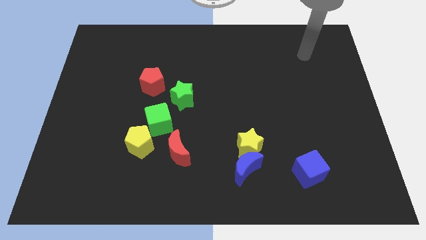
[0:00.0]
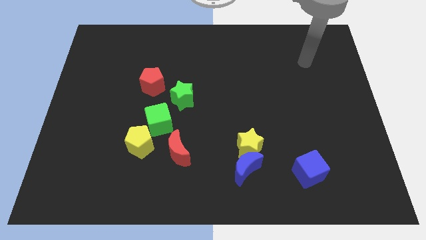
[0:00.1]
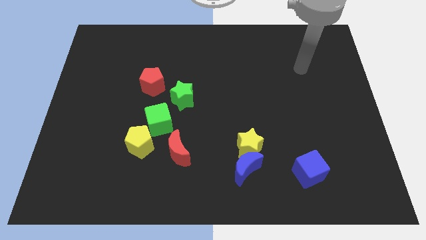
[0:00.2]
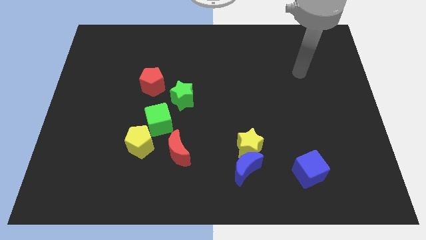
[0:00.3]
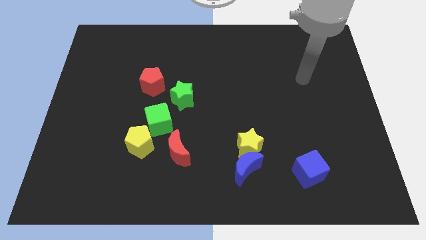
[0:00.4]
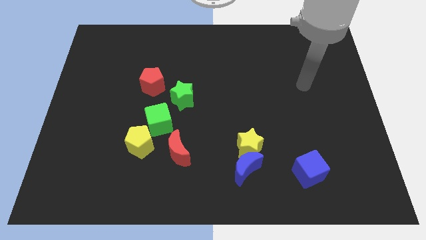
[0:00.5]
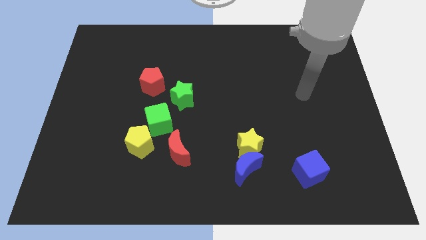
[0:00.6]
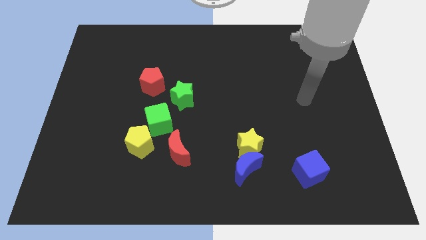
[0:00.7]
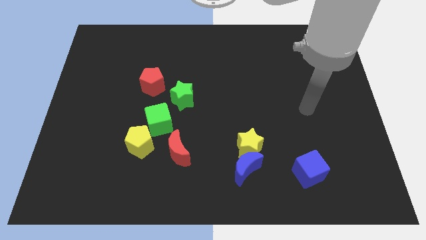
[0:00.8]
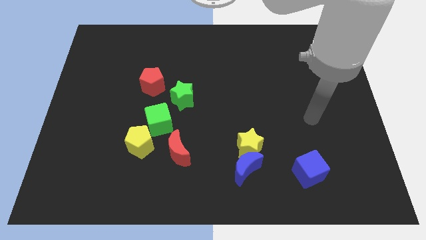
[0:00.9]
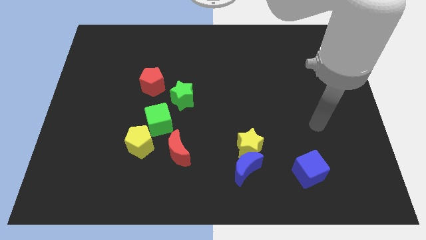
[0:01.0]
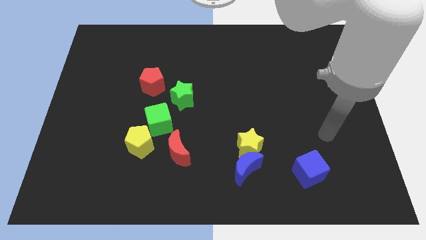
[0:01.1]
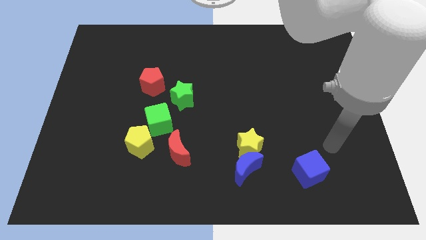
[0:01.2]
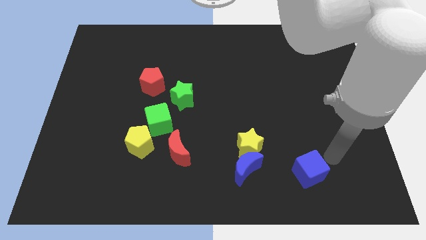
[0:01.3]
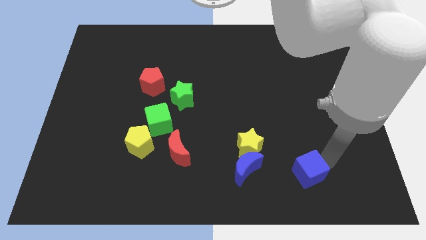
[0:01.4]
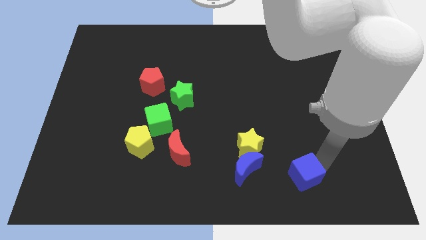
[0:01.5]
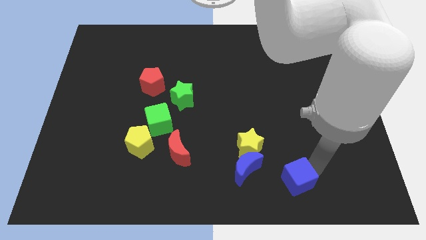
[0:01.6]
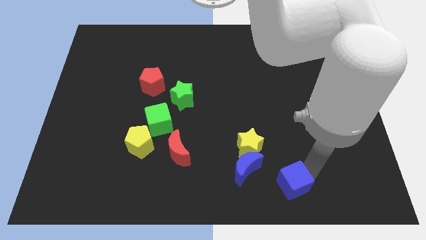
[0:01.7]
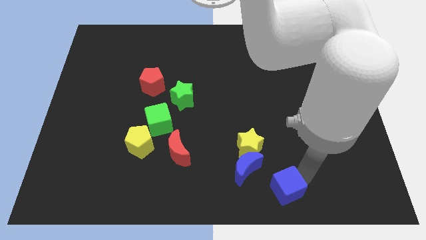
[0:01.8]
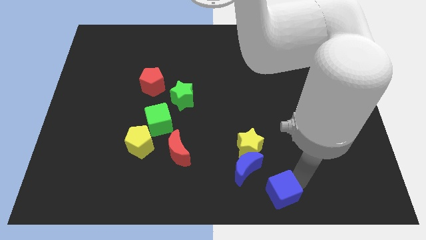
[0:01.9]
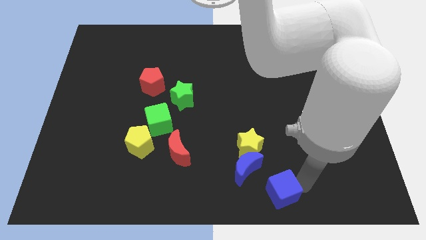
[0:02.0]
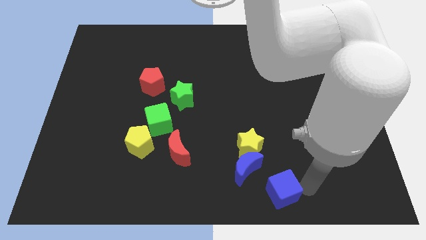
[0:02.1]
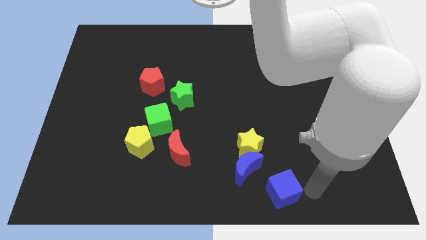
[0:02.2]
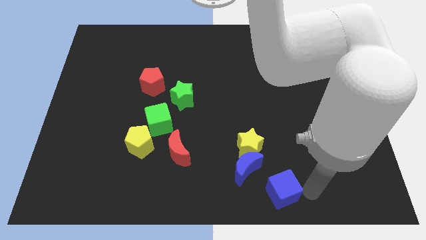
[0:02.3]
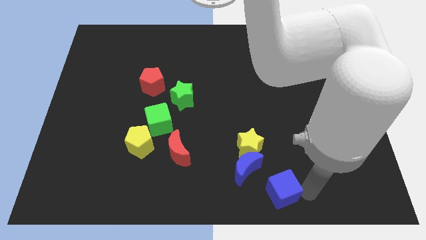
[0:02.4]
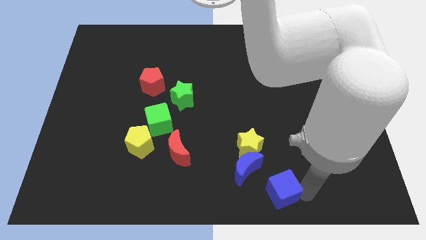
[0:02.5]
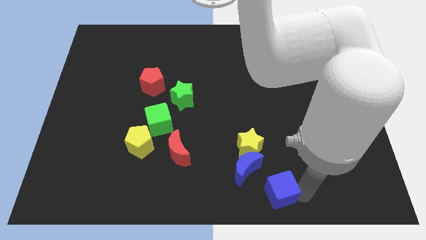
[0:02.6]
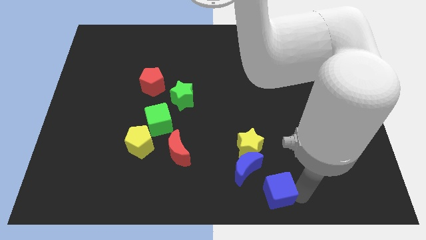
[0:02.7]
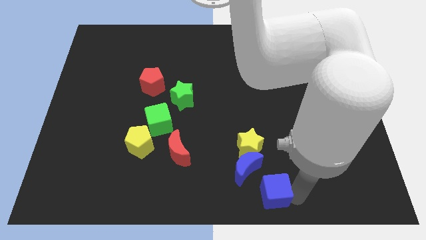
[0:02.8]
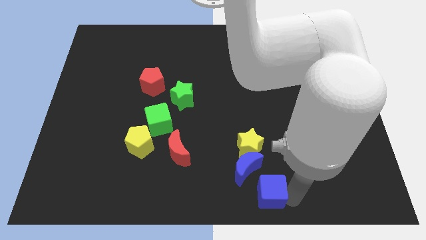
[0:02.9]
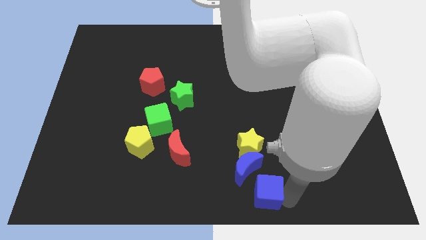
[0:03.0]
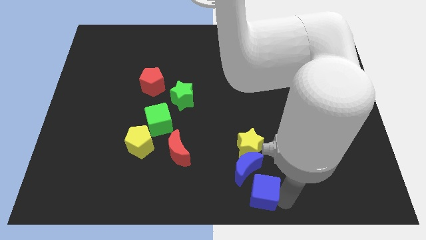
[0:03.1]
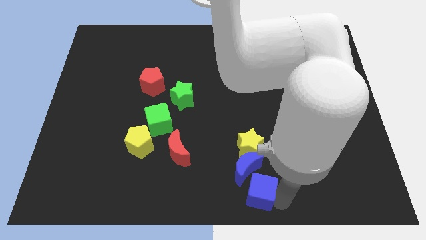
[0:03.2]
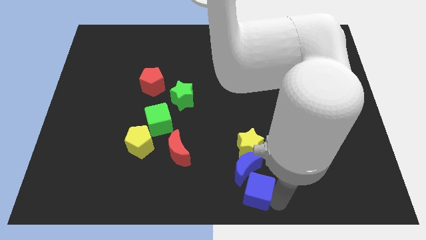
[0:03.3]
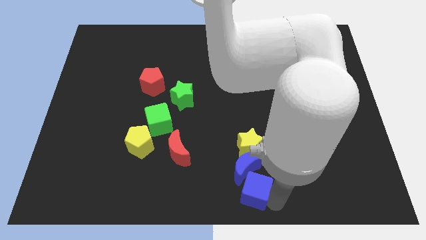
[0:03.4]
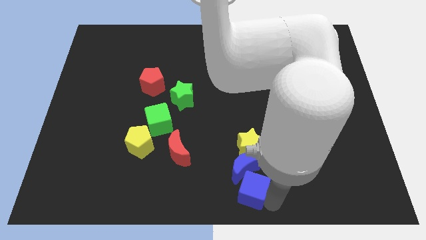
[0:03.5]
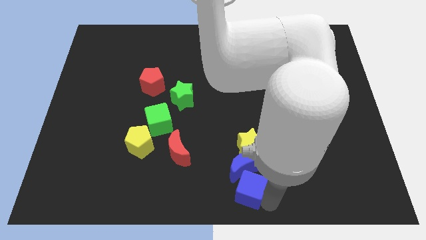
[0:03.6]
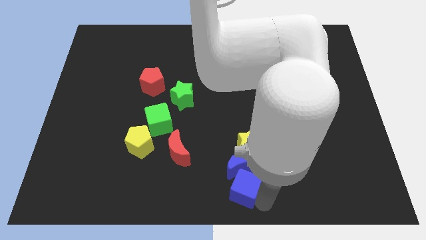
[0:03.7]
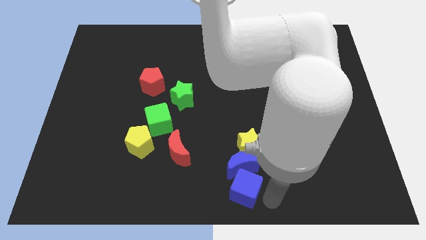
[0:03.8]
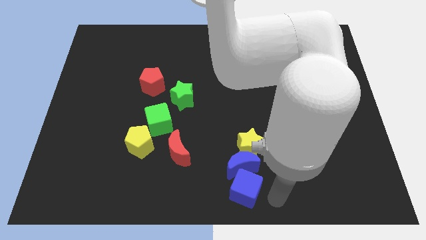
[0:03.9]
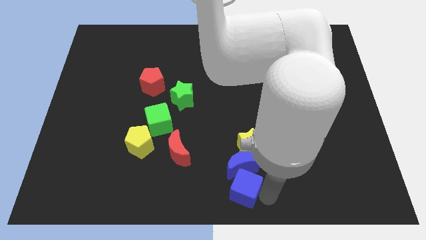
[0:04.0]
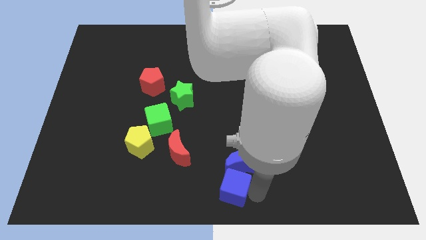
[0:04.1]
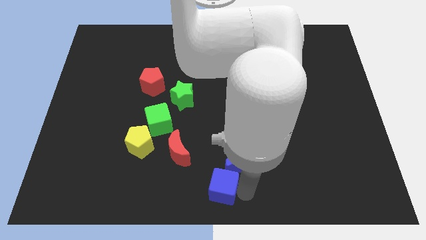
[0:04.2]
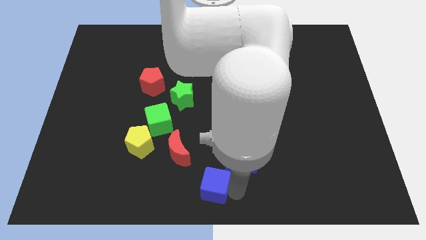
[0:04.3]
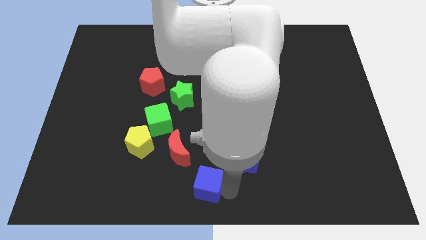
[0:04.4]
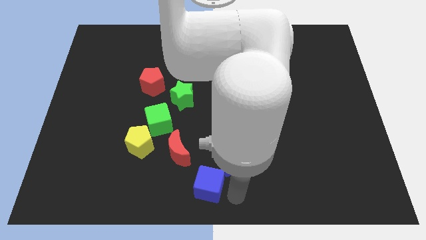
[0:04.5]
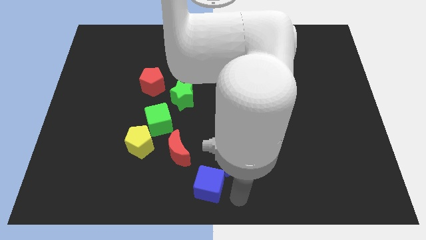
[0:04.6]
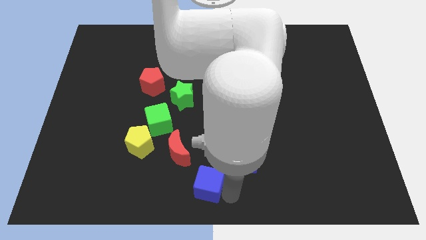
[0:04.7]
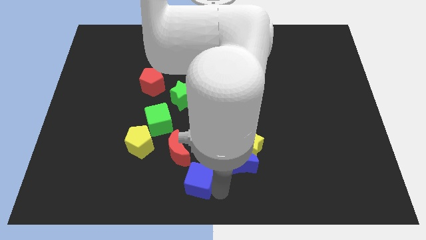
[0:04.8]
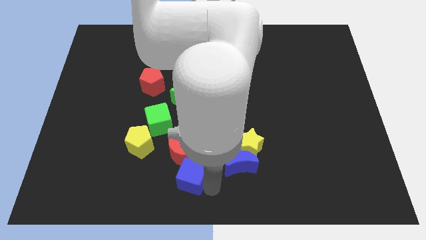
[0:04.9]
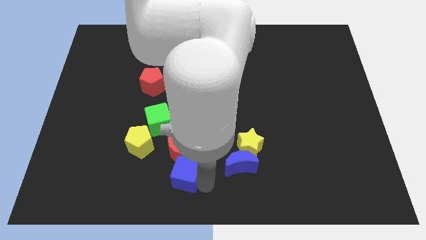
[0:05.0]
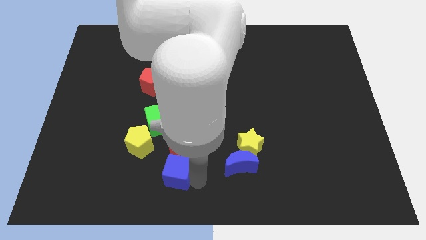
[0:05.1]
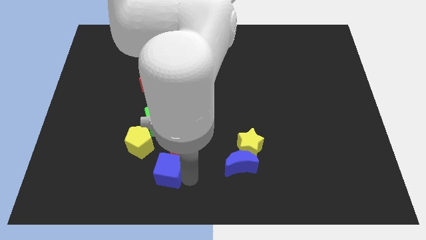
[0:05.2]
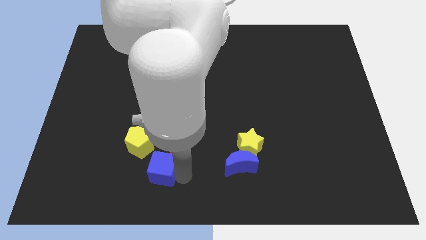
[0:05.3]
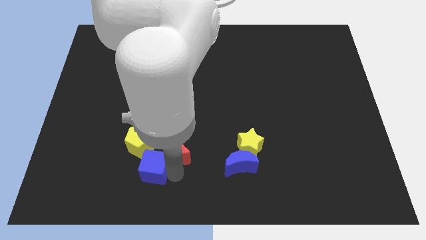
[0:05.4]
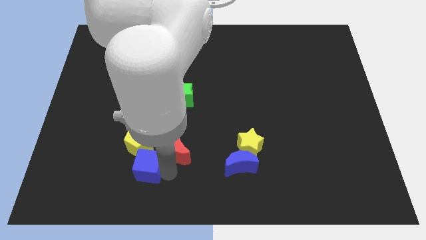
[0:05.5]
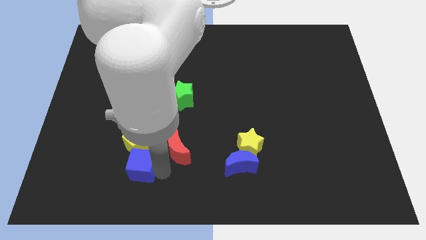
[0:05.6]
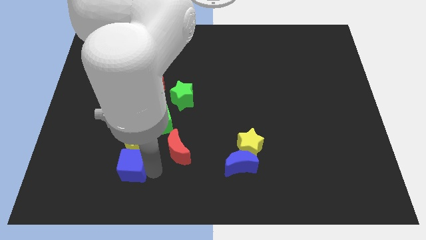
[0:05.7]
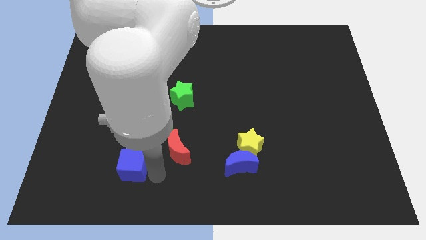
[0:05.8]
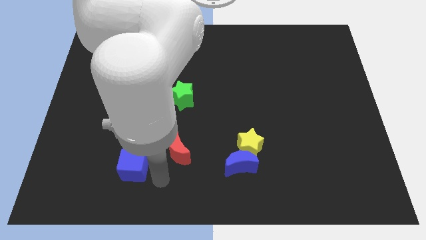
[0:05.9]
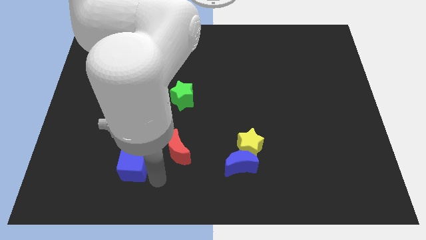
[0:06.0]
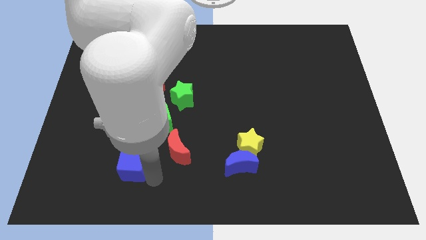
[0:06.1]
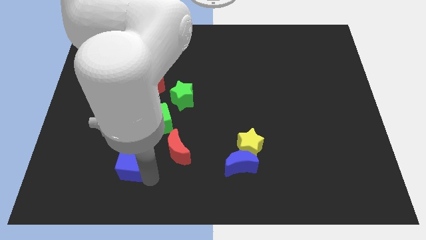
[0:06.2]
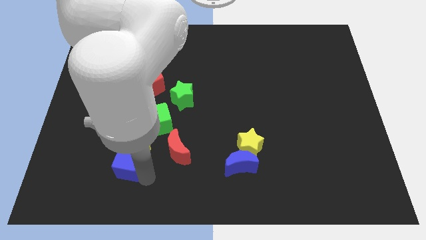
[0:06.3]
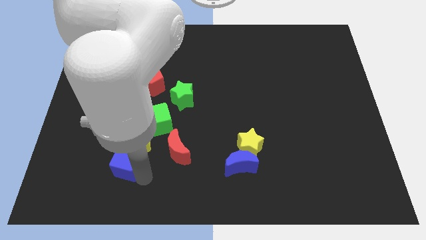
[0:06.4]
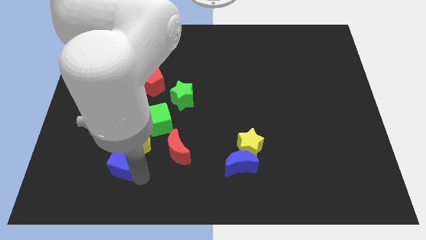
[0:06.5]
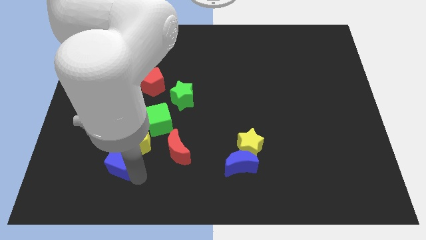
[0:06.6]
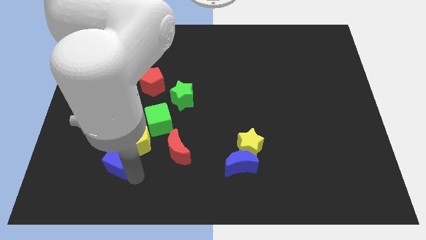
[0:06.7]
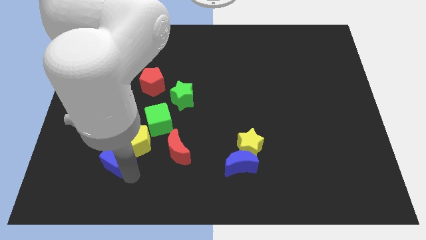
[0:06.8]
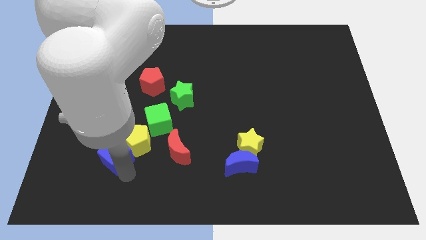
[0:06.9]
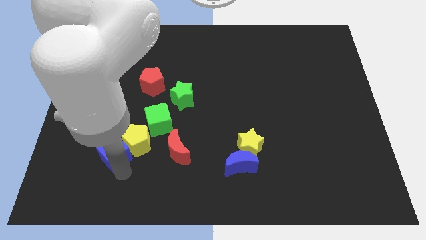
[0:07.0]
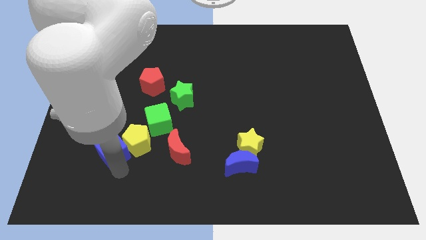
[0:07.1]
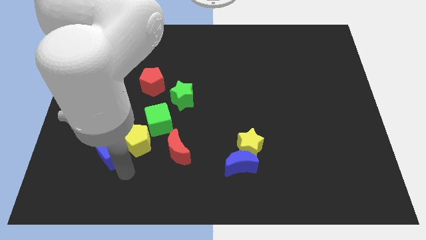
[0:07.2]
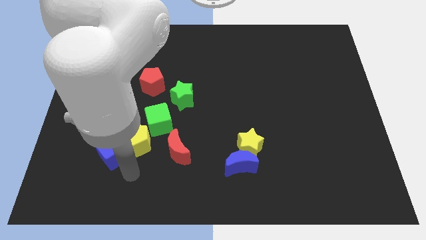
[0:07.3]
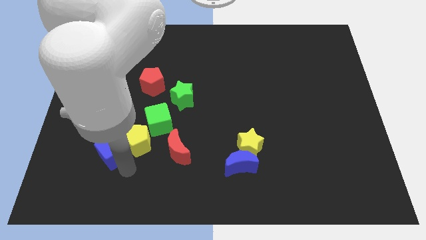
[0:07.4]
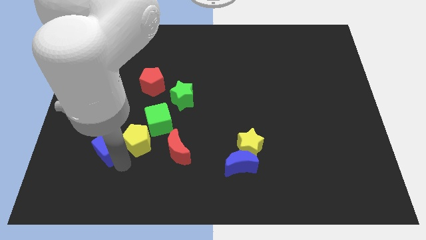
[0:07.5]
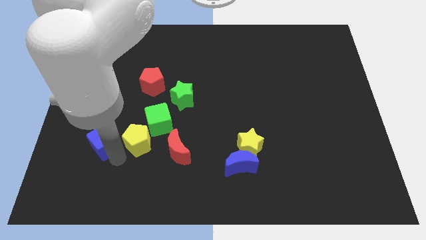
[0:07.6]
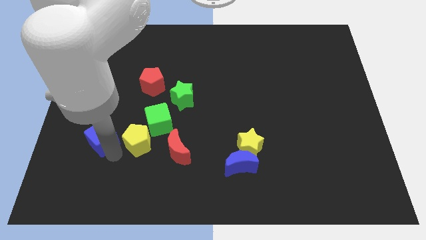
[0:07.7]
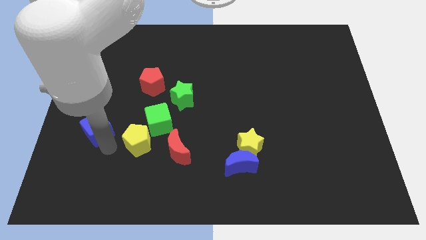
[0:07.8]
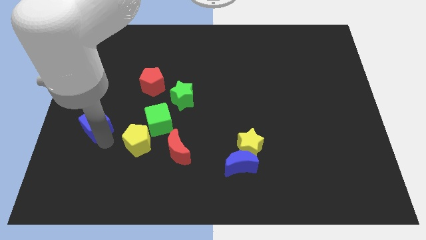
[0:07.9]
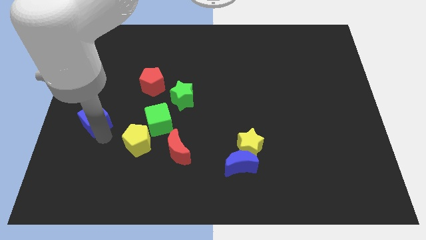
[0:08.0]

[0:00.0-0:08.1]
put the blue cube to the left side
